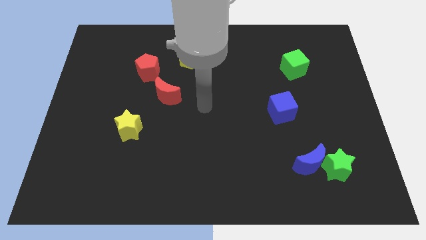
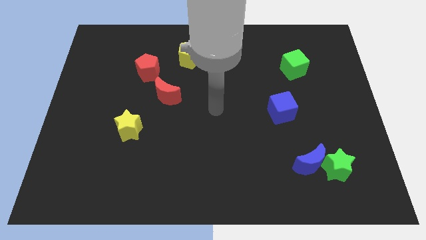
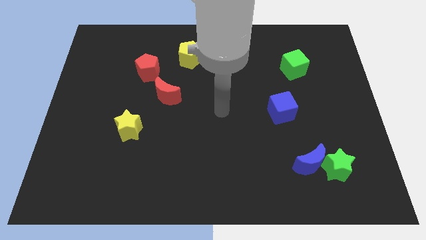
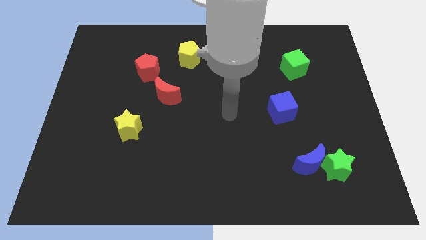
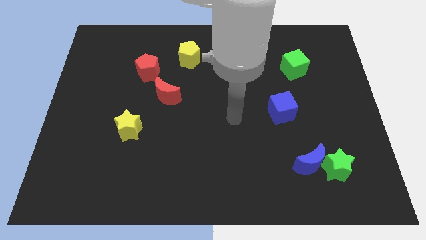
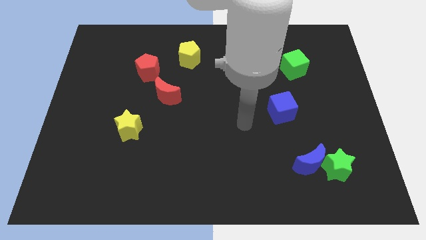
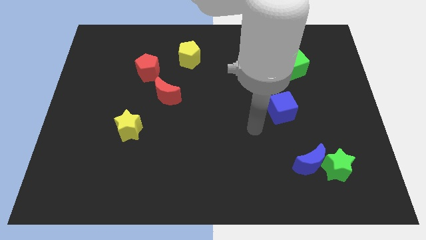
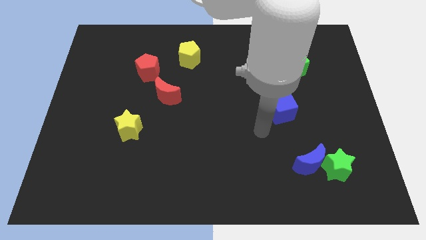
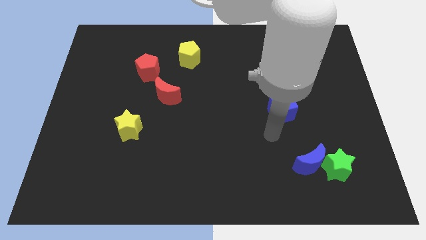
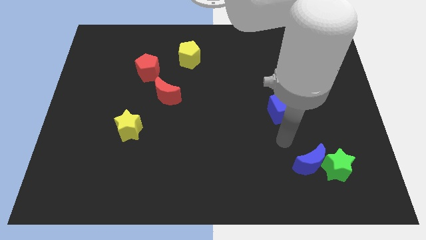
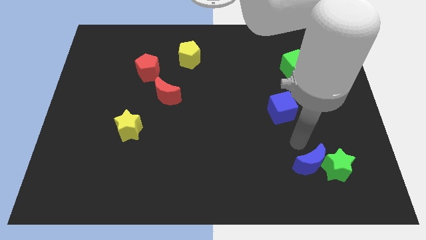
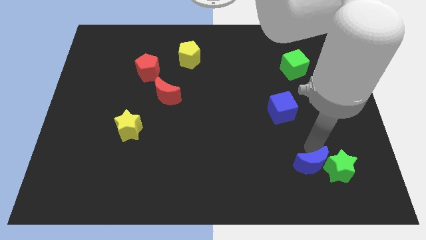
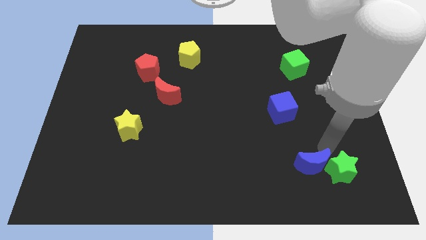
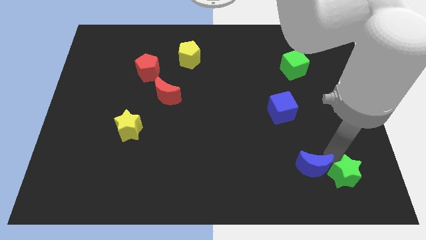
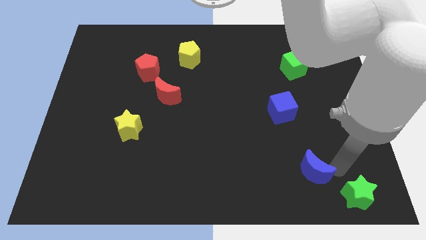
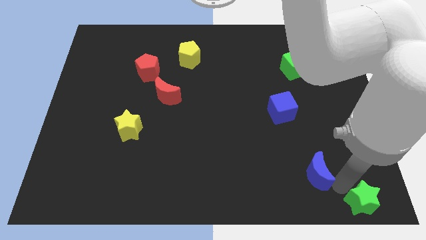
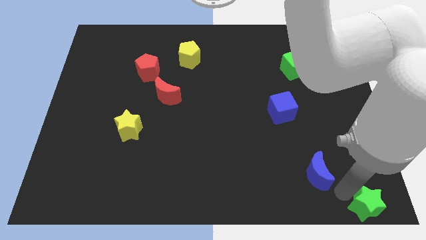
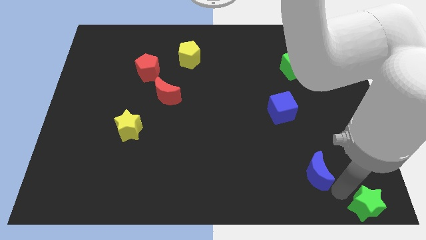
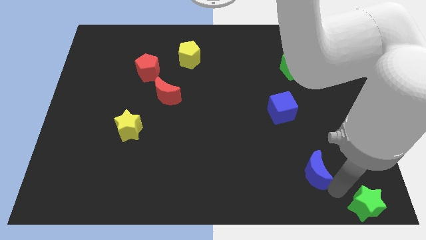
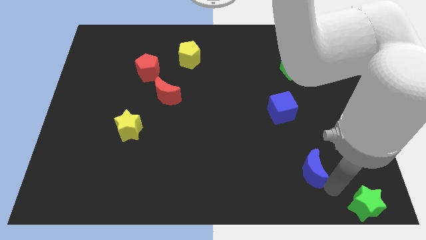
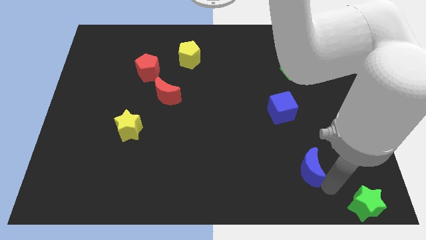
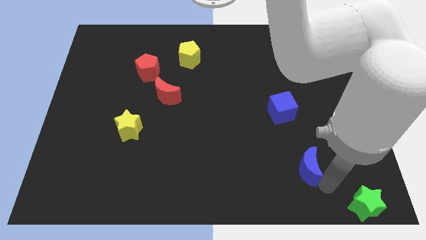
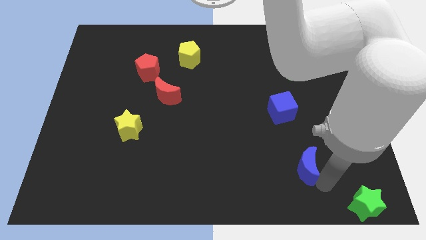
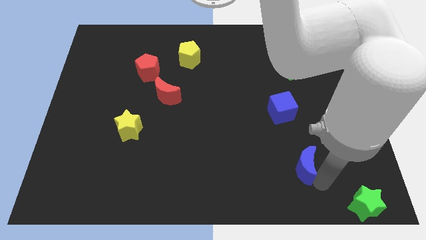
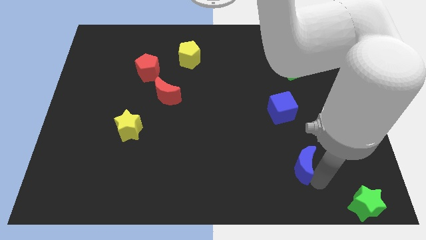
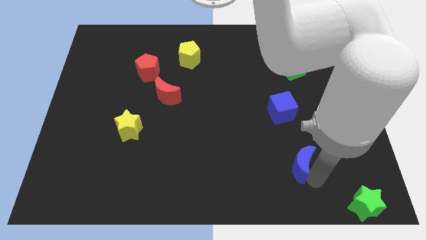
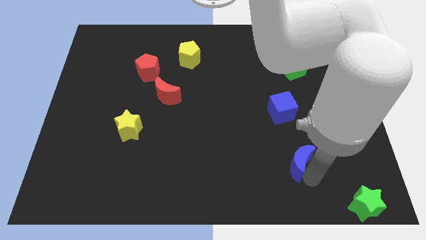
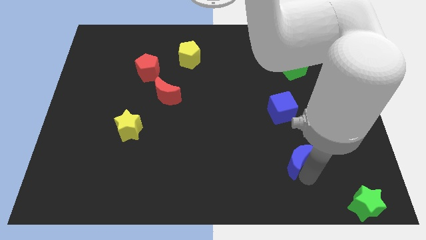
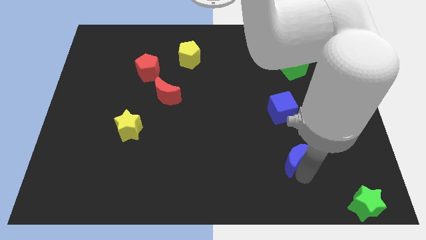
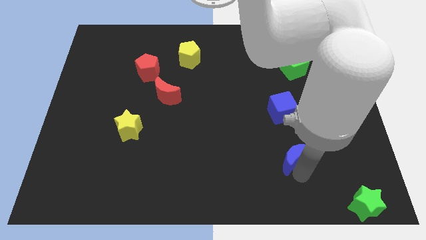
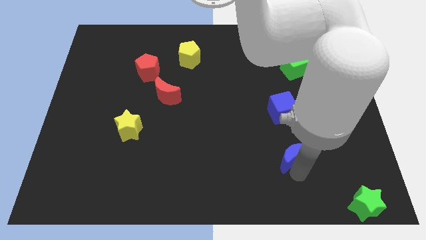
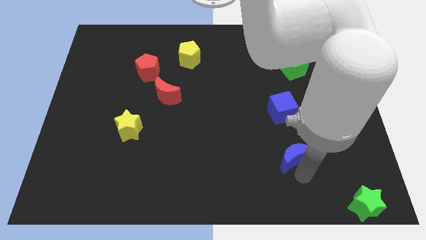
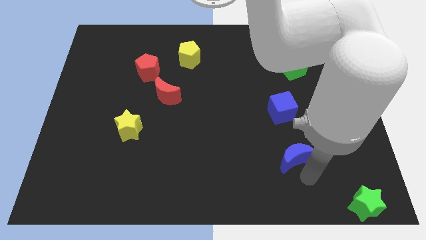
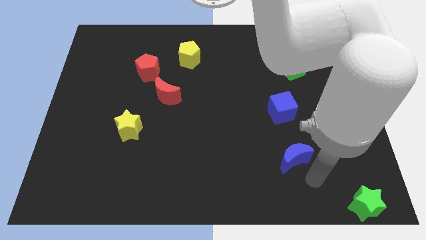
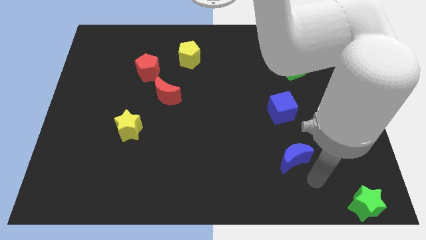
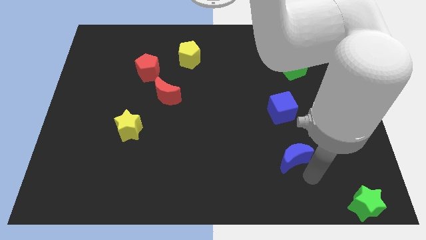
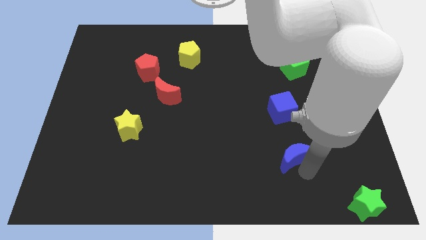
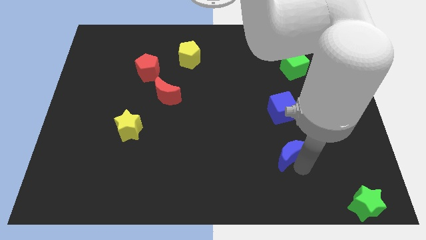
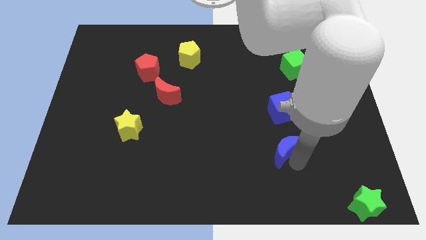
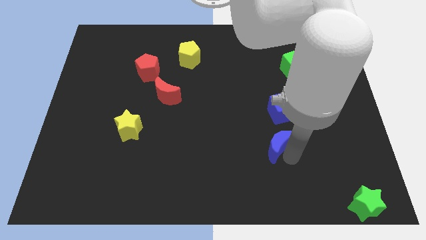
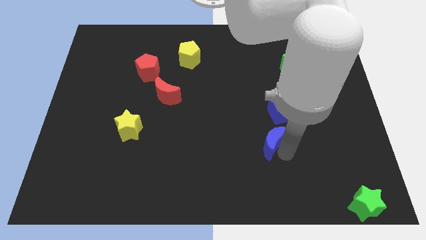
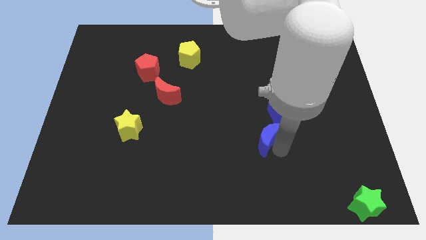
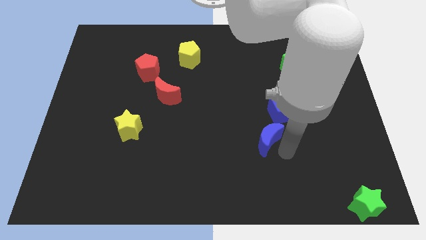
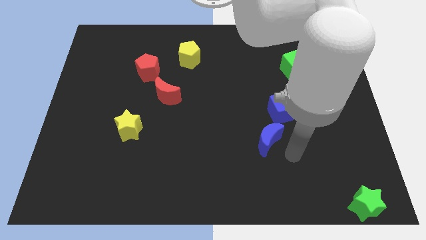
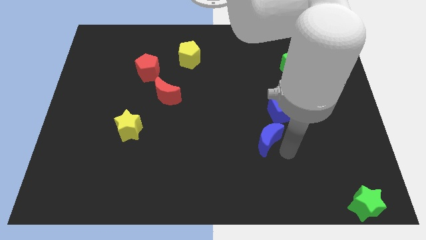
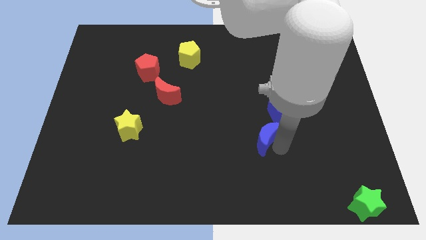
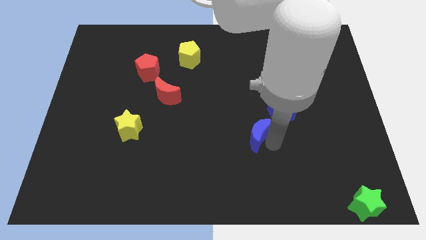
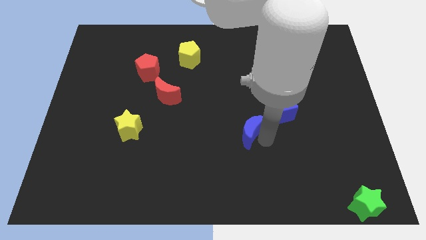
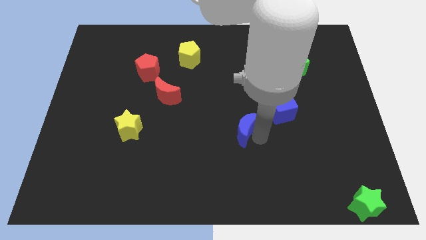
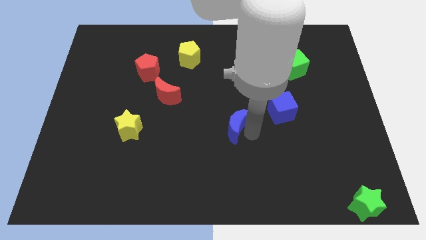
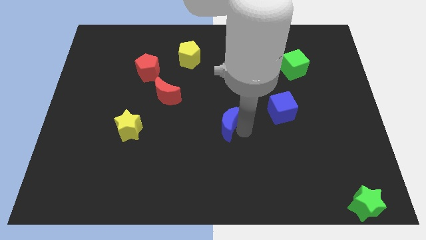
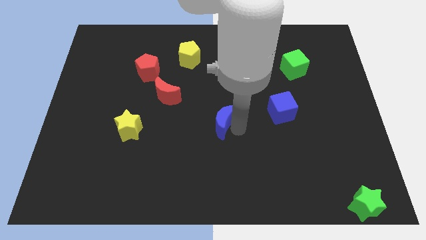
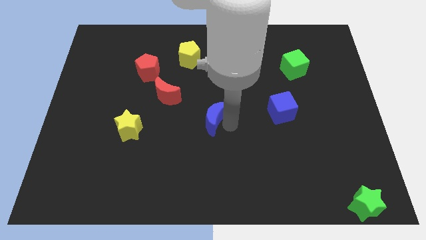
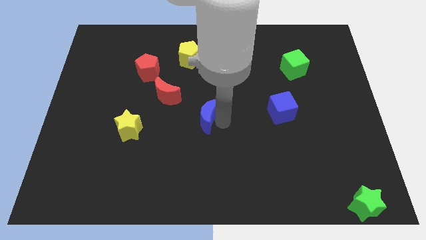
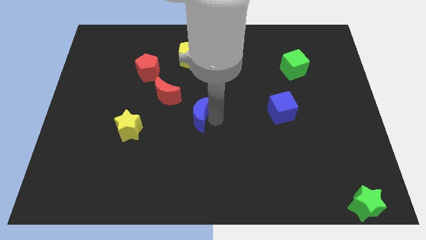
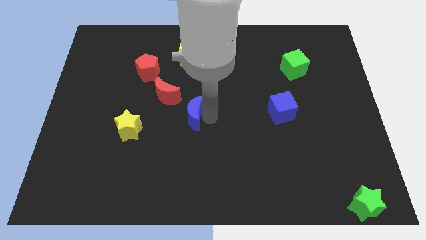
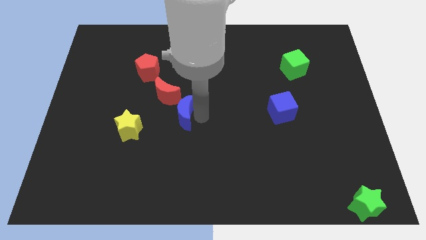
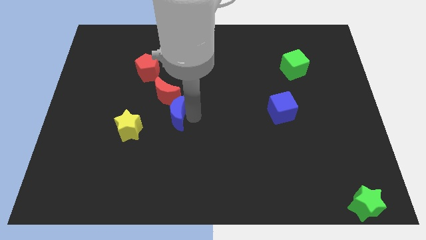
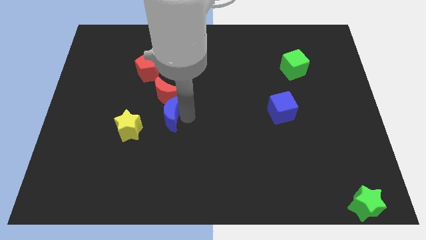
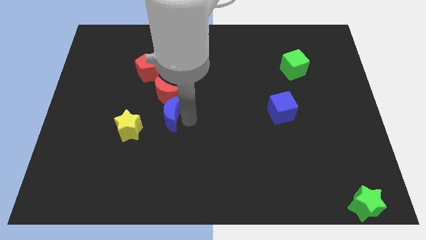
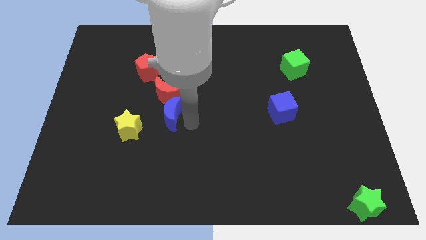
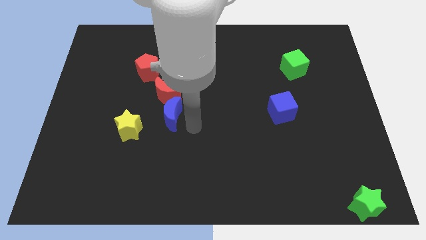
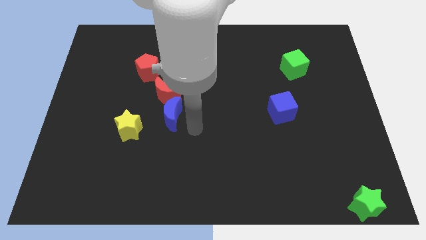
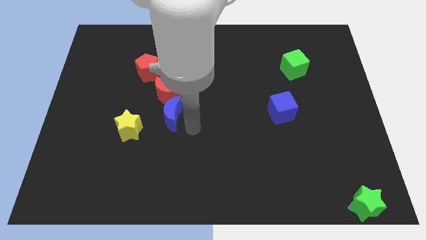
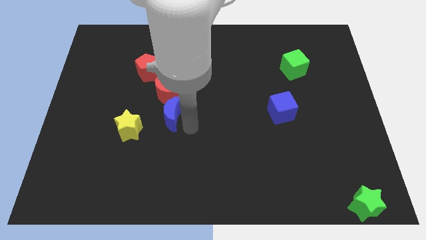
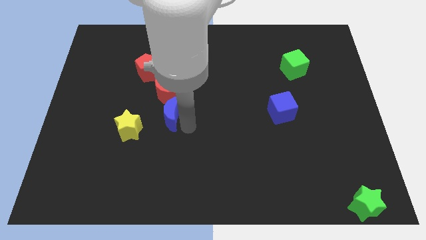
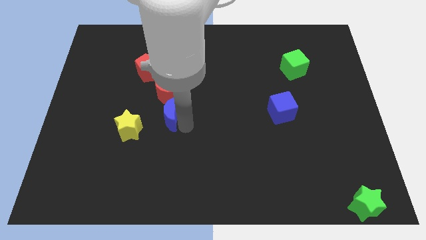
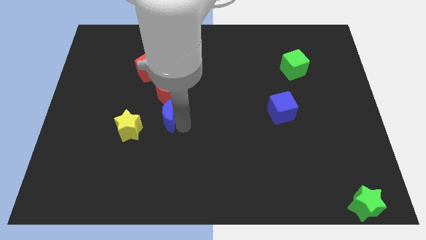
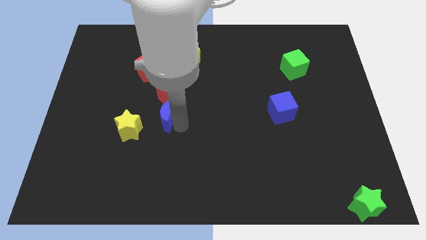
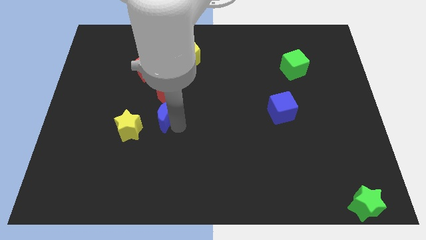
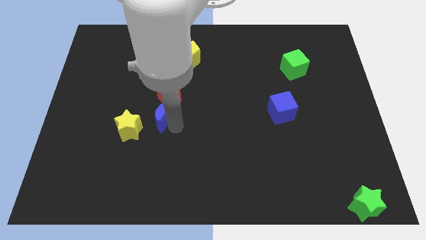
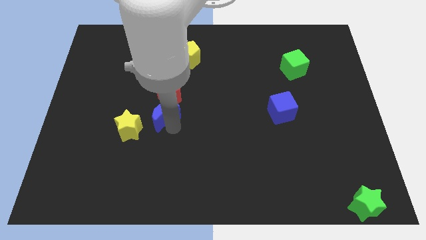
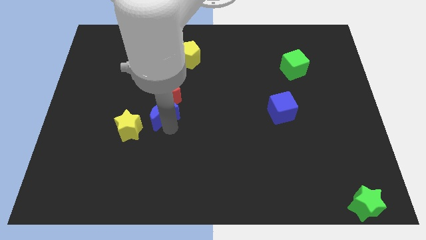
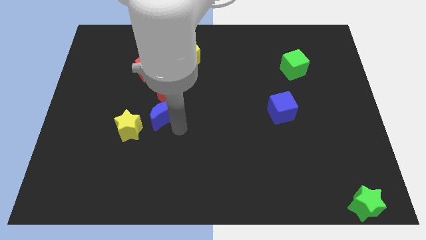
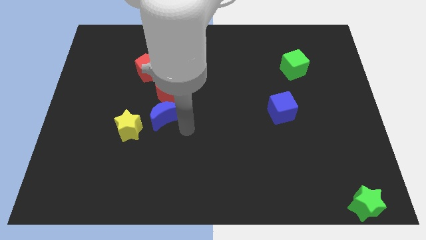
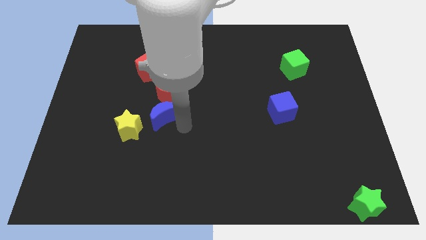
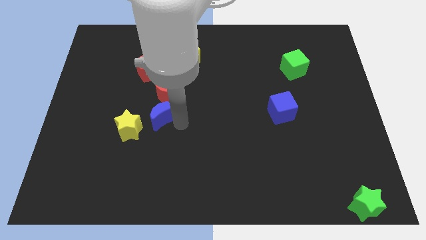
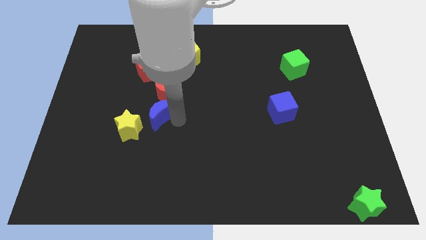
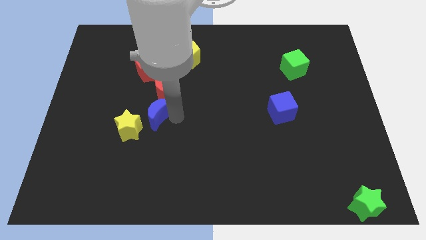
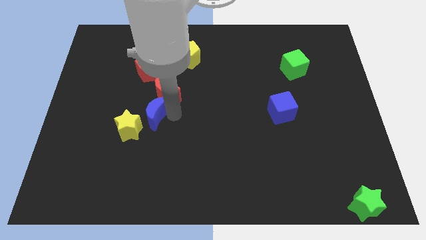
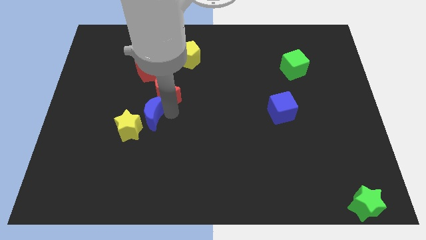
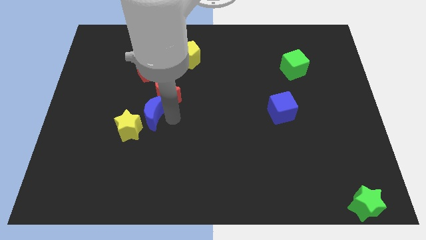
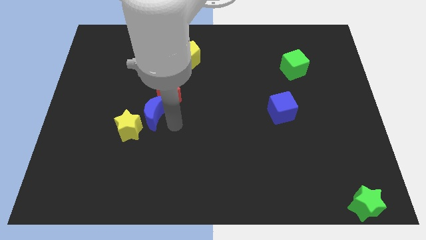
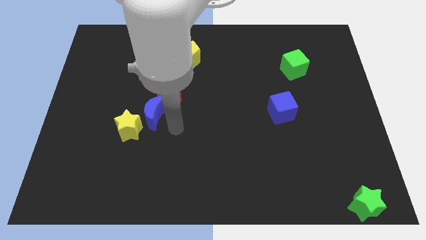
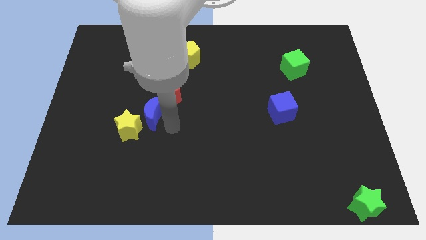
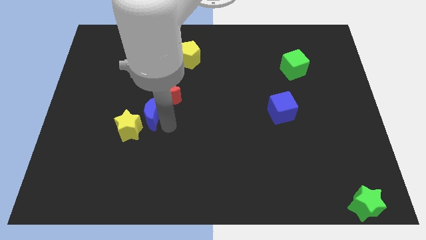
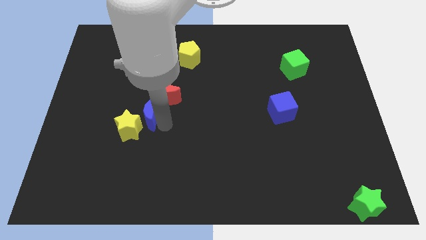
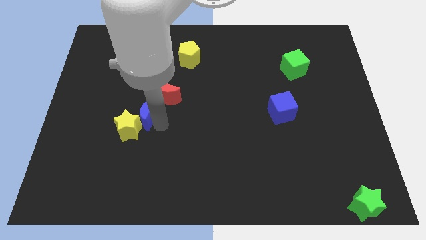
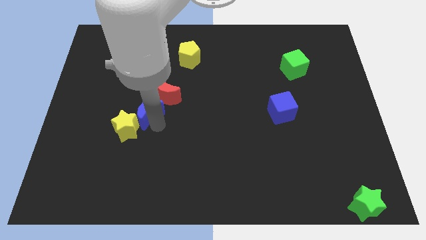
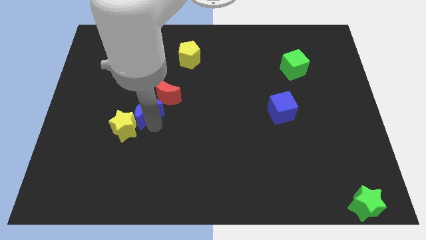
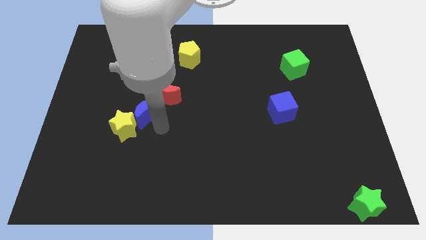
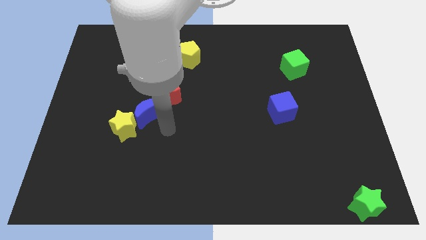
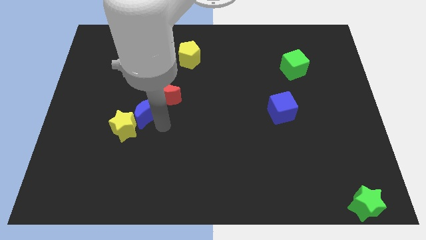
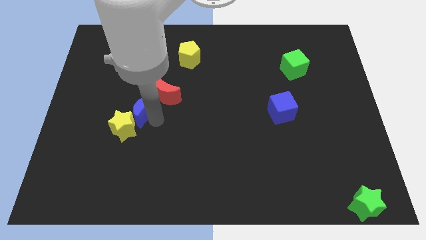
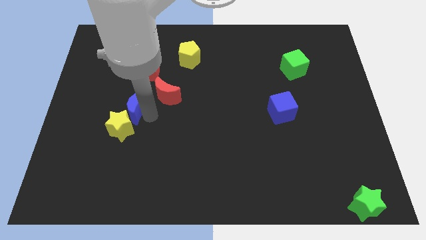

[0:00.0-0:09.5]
put the blue moon just left of the red moon
